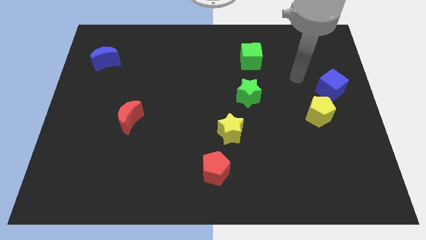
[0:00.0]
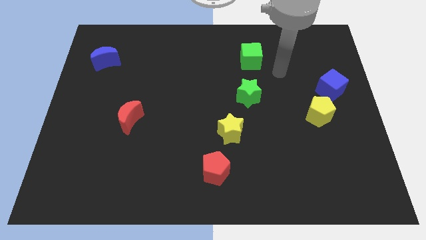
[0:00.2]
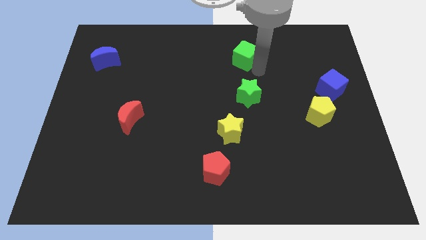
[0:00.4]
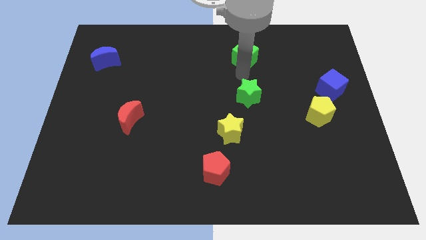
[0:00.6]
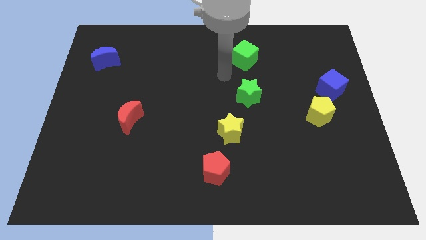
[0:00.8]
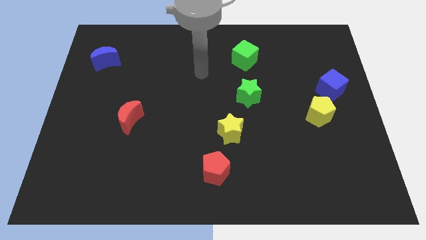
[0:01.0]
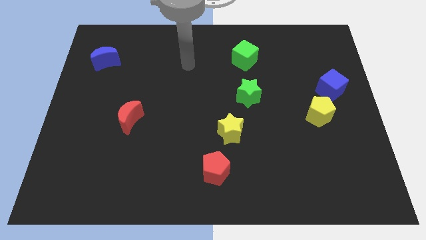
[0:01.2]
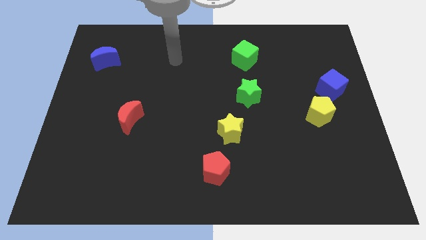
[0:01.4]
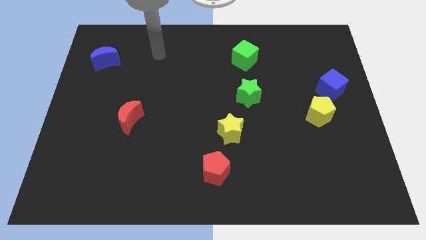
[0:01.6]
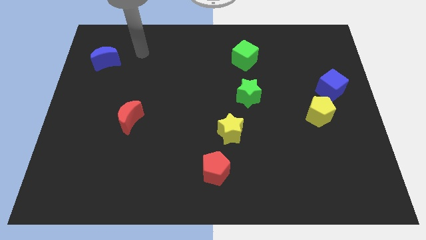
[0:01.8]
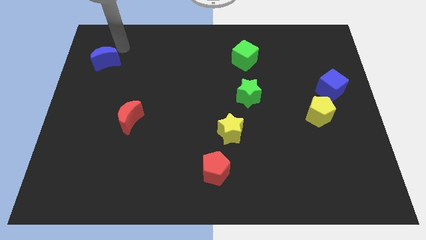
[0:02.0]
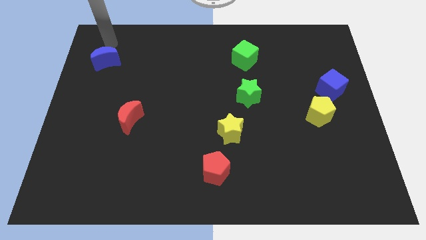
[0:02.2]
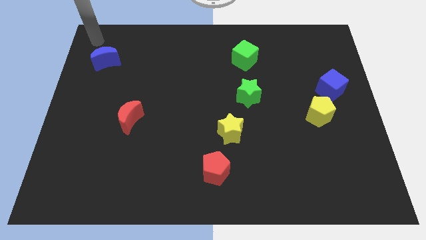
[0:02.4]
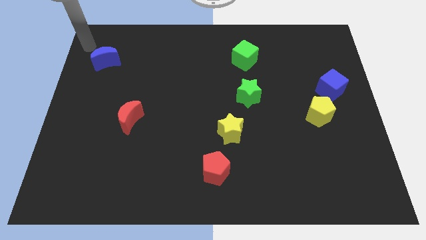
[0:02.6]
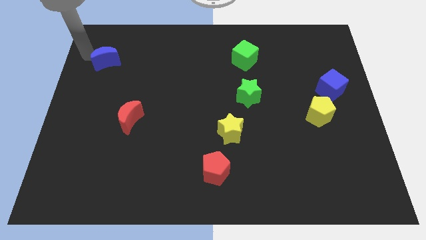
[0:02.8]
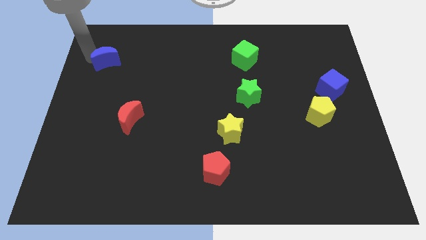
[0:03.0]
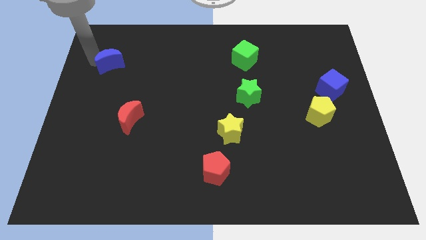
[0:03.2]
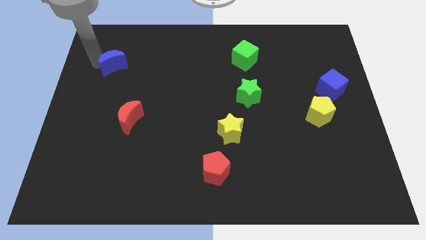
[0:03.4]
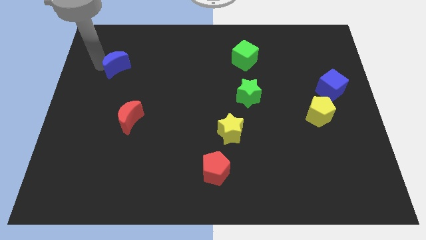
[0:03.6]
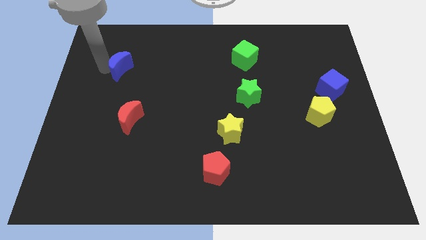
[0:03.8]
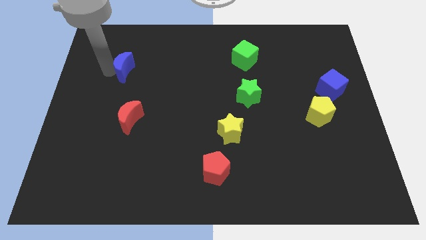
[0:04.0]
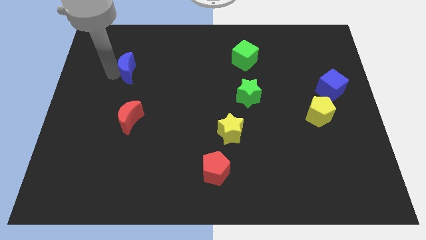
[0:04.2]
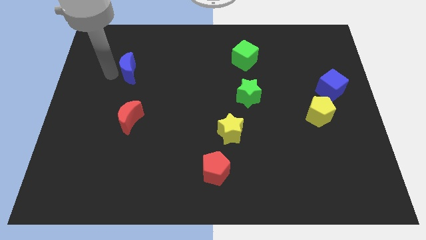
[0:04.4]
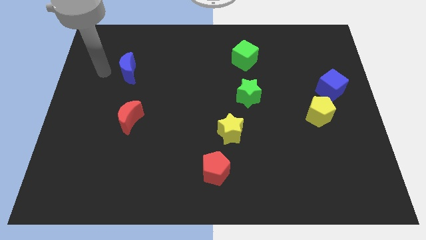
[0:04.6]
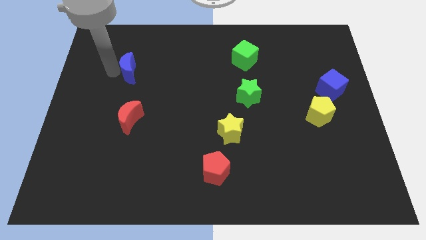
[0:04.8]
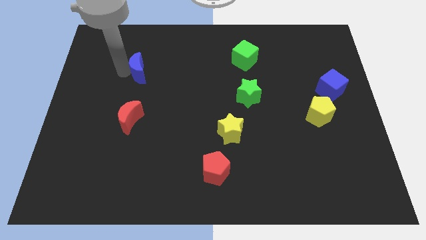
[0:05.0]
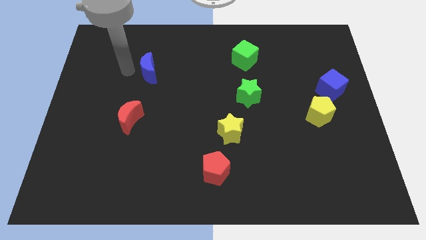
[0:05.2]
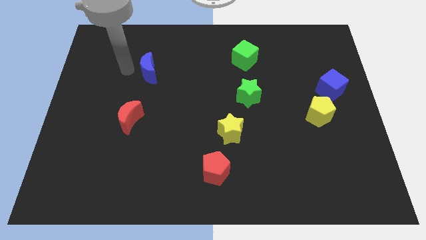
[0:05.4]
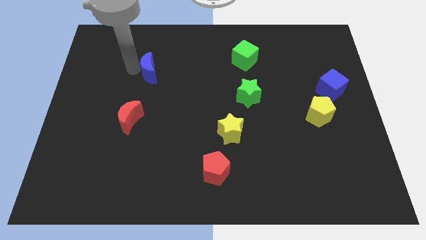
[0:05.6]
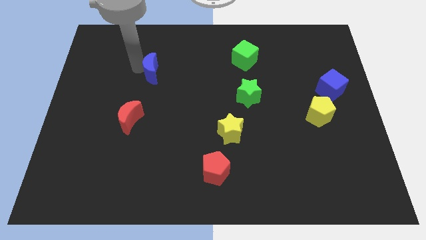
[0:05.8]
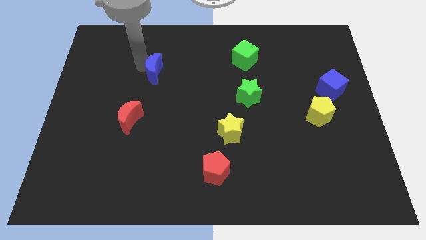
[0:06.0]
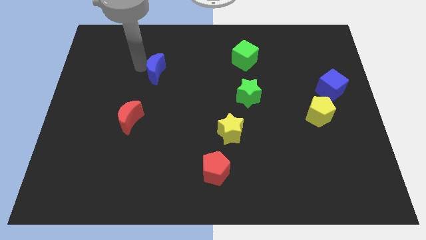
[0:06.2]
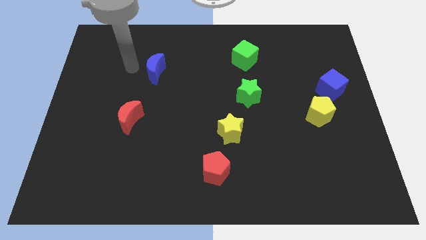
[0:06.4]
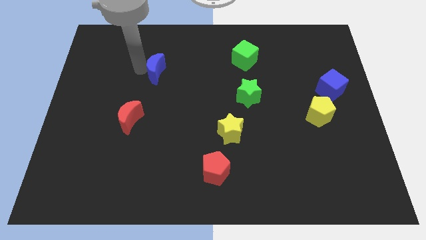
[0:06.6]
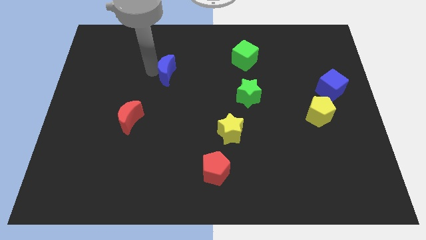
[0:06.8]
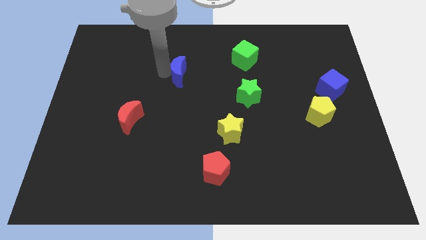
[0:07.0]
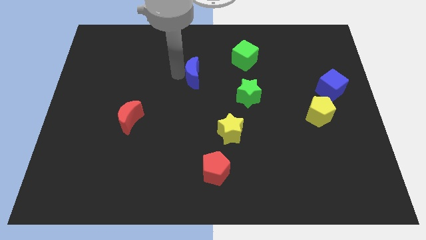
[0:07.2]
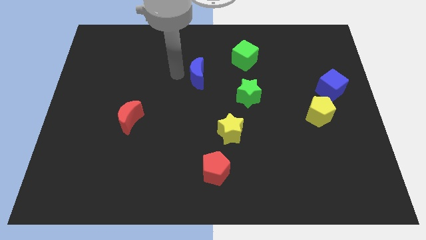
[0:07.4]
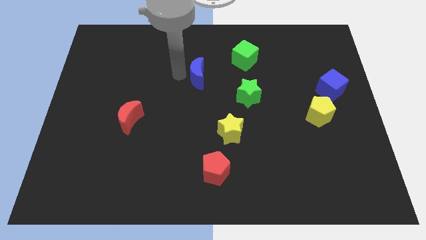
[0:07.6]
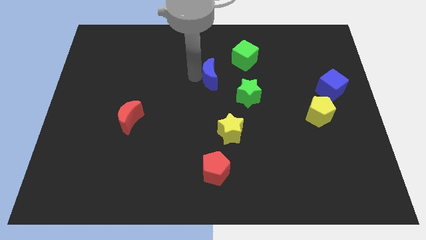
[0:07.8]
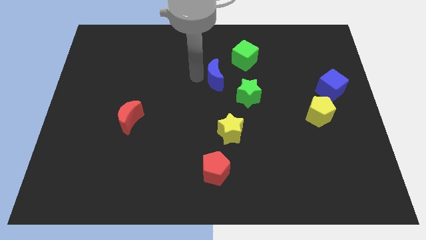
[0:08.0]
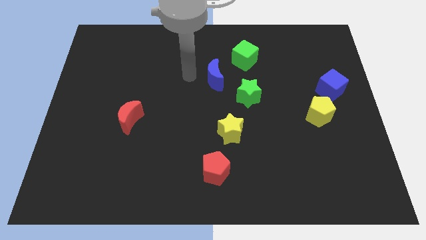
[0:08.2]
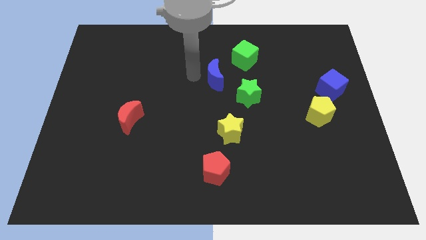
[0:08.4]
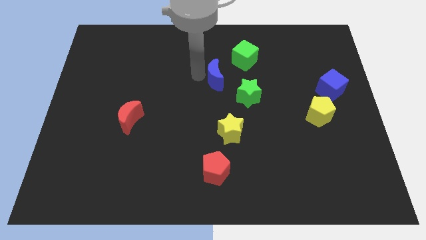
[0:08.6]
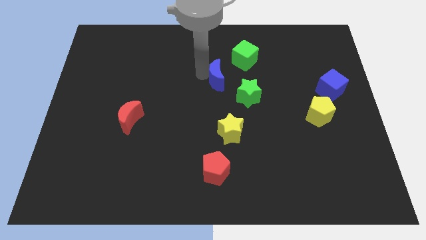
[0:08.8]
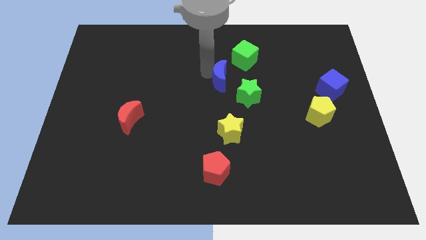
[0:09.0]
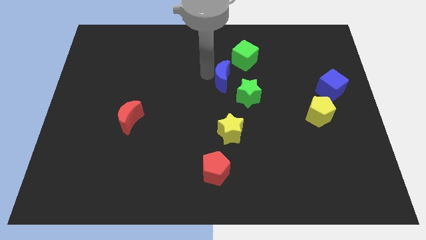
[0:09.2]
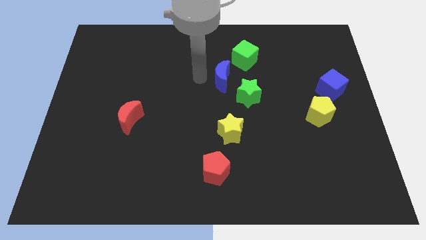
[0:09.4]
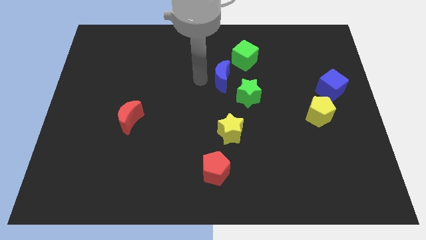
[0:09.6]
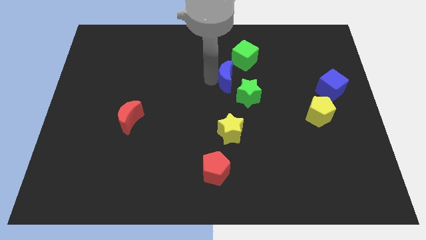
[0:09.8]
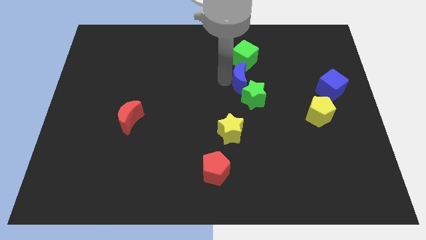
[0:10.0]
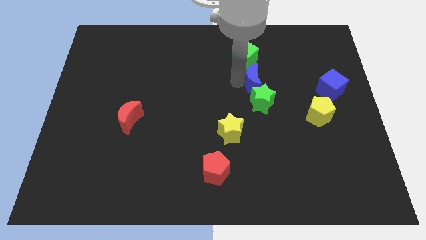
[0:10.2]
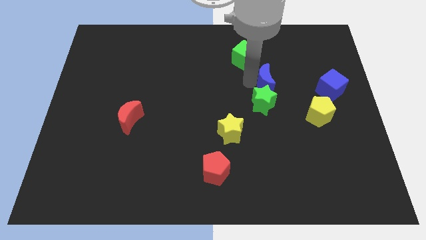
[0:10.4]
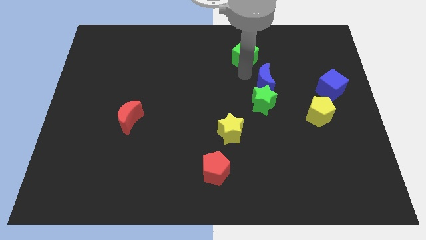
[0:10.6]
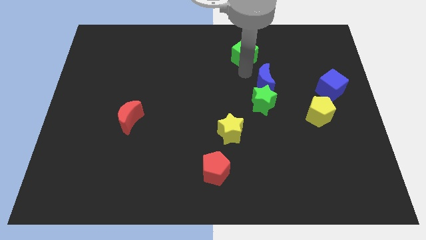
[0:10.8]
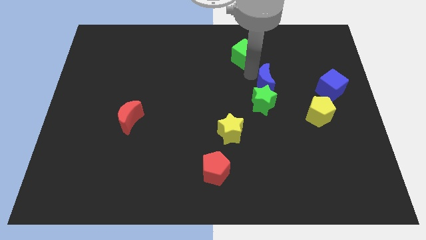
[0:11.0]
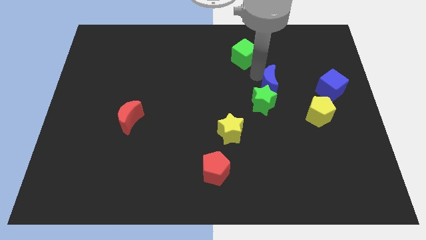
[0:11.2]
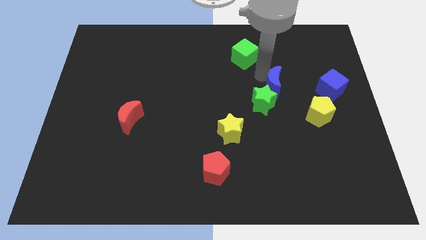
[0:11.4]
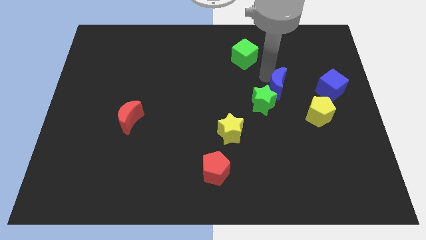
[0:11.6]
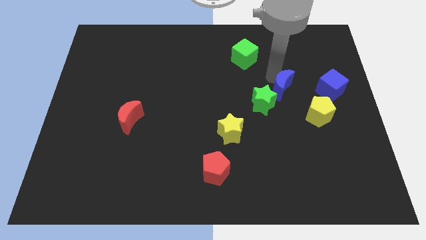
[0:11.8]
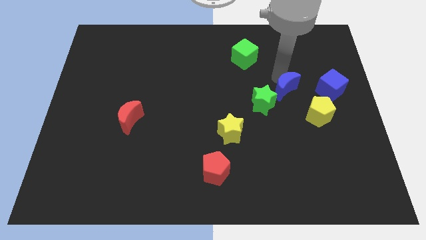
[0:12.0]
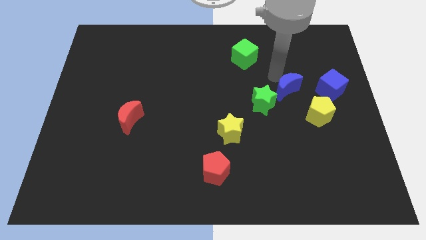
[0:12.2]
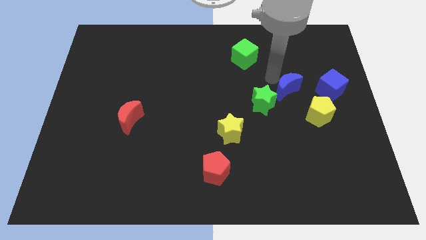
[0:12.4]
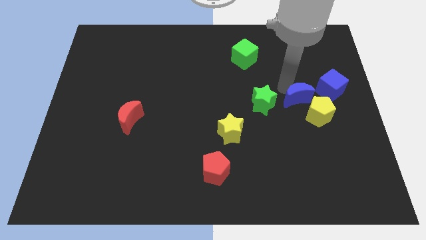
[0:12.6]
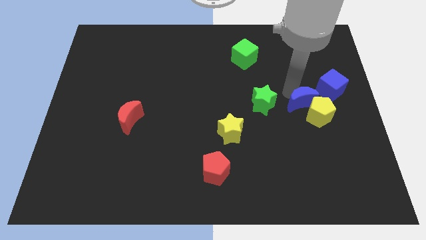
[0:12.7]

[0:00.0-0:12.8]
put the blue moon towards the yellow pentagon

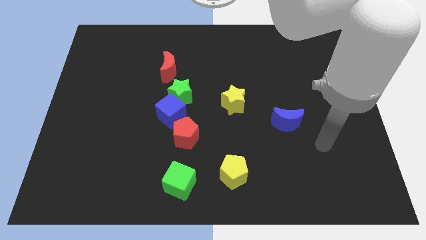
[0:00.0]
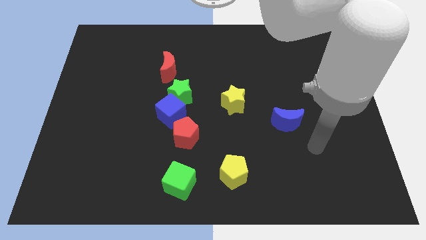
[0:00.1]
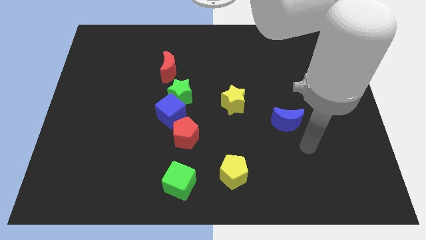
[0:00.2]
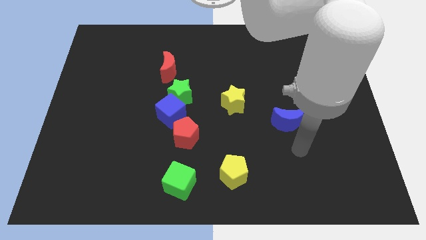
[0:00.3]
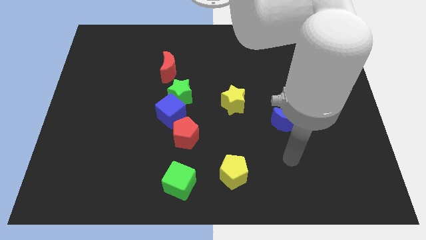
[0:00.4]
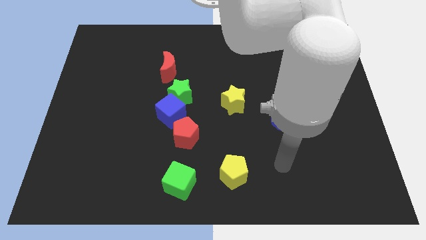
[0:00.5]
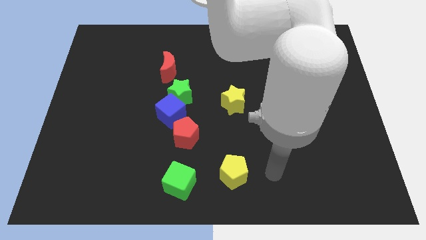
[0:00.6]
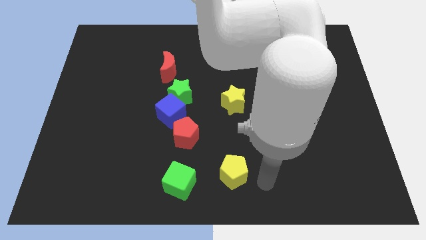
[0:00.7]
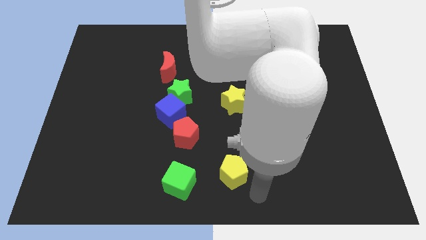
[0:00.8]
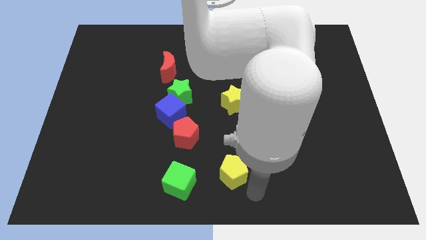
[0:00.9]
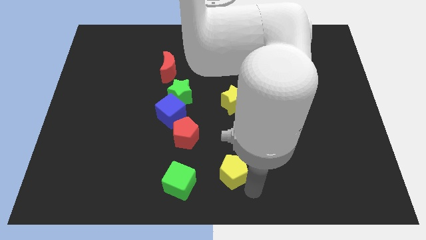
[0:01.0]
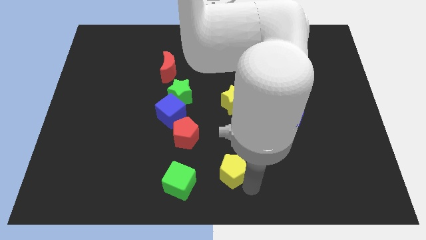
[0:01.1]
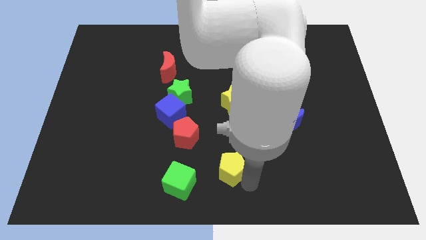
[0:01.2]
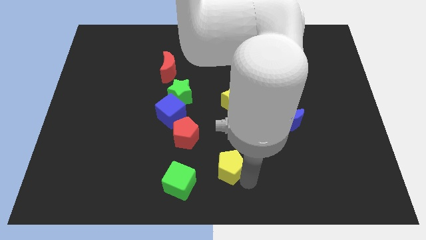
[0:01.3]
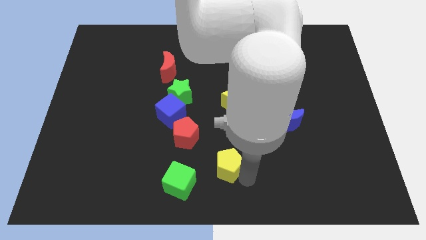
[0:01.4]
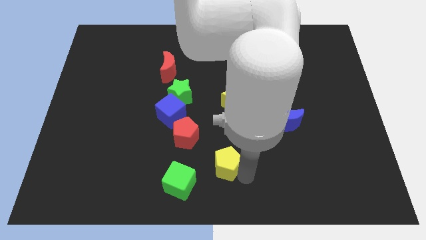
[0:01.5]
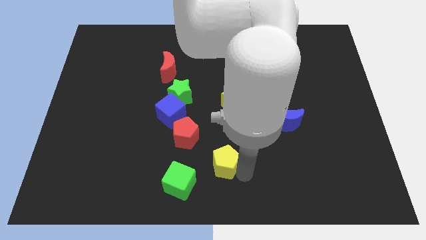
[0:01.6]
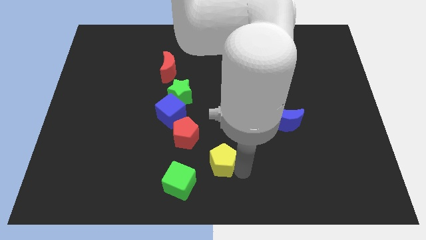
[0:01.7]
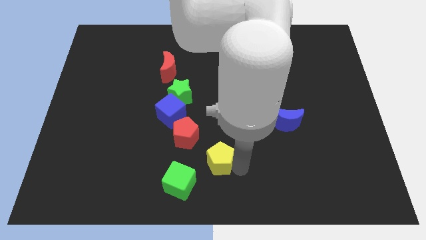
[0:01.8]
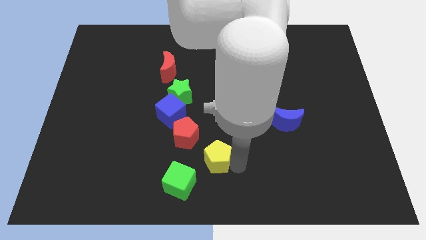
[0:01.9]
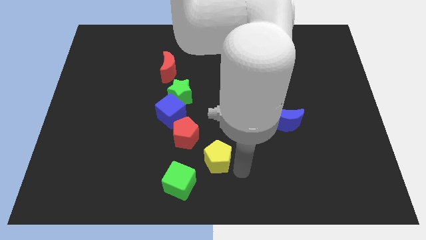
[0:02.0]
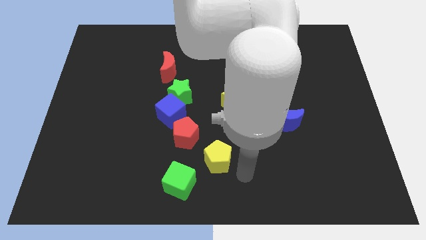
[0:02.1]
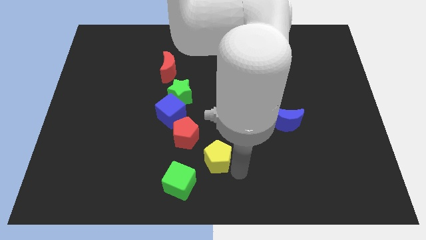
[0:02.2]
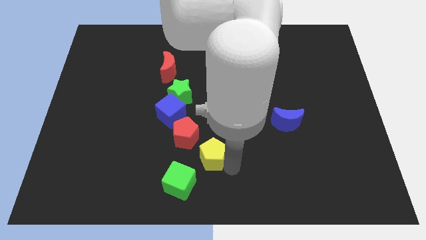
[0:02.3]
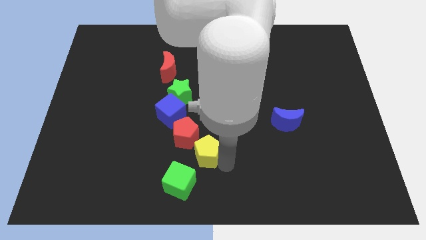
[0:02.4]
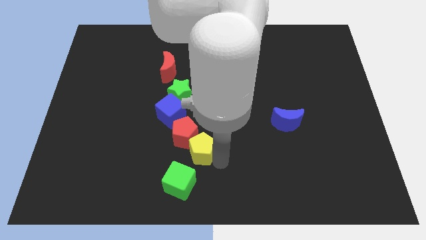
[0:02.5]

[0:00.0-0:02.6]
put the yellow pentagon to the red pentagon
